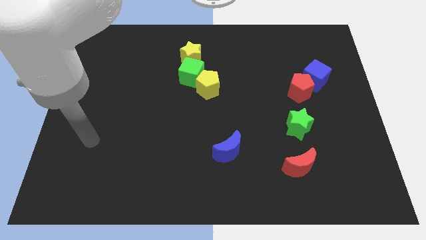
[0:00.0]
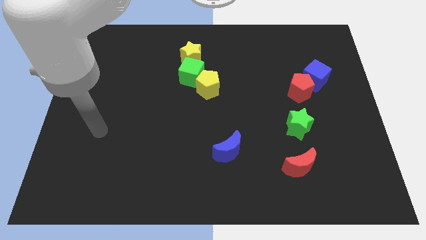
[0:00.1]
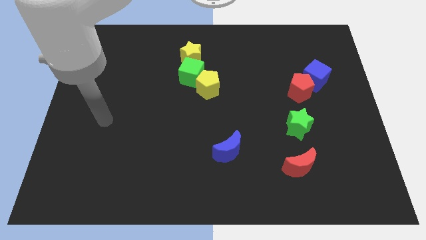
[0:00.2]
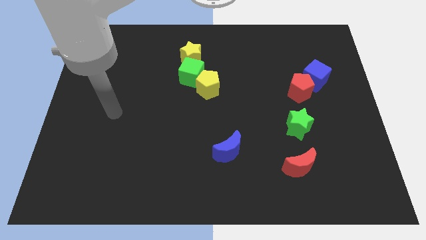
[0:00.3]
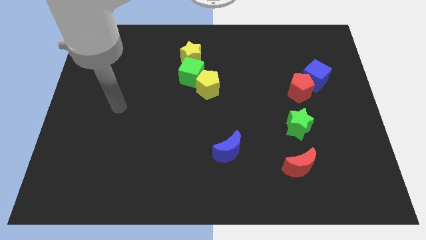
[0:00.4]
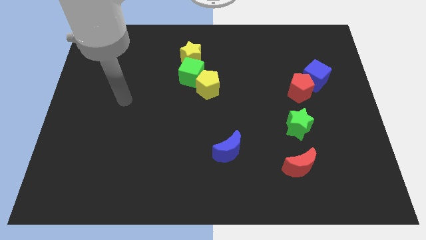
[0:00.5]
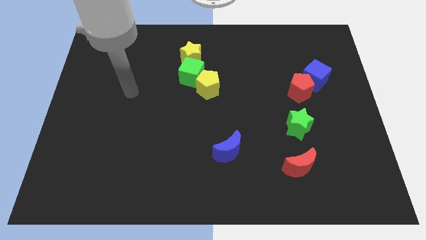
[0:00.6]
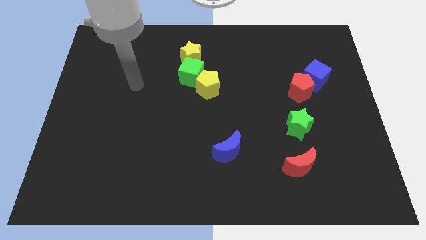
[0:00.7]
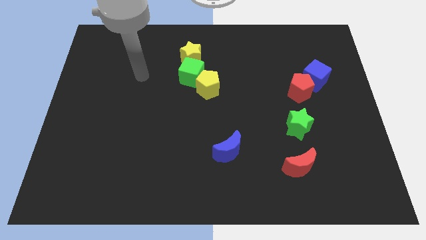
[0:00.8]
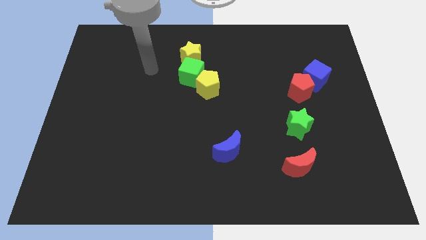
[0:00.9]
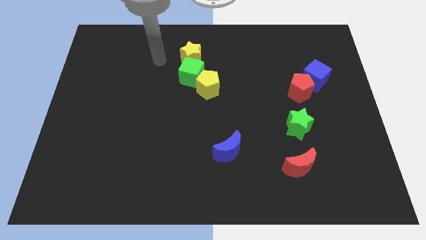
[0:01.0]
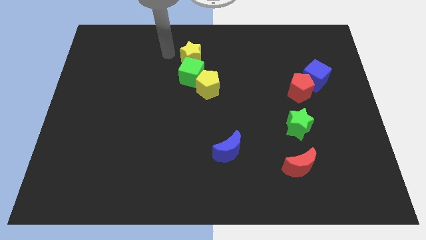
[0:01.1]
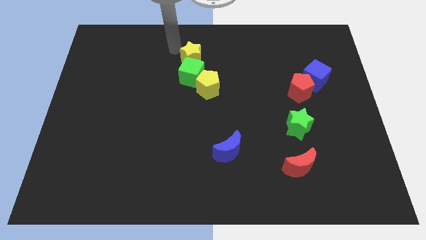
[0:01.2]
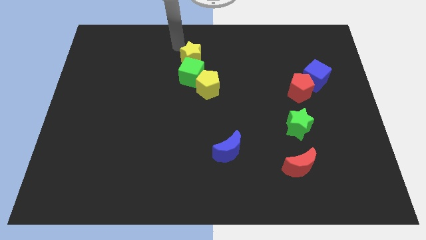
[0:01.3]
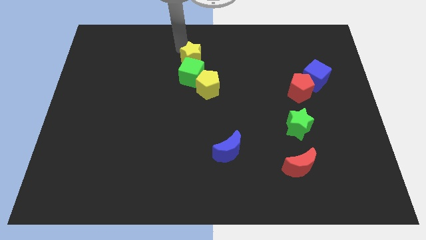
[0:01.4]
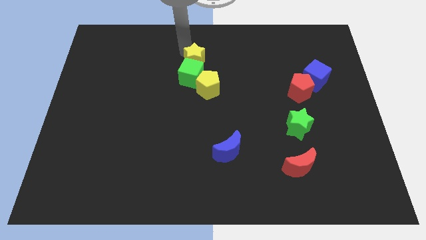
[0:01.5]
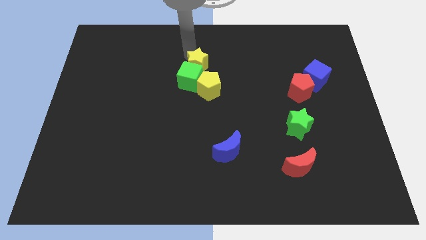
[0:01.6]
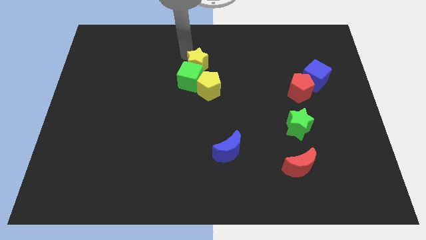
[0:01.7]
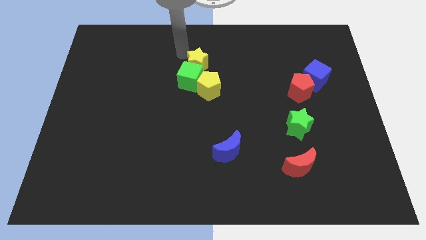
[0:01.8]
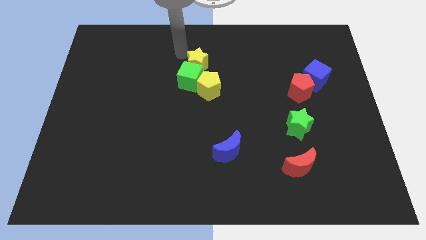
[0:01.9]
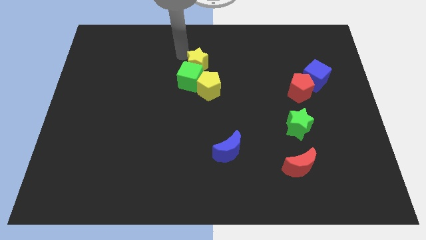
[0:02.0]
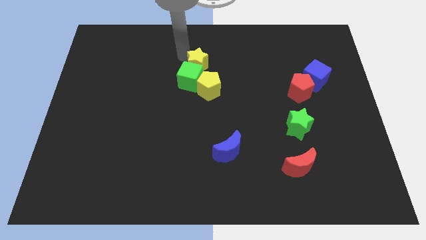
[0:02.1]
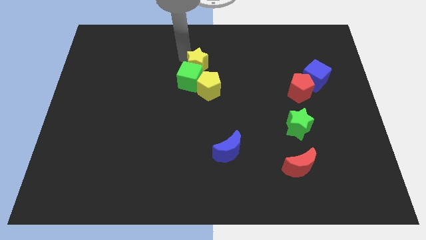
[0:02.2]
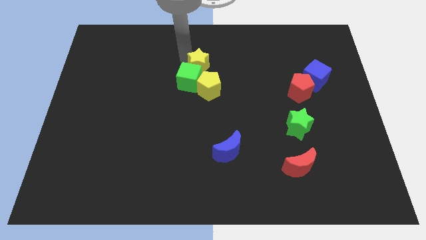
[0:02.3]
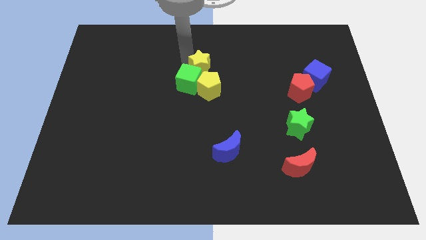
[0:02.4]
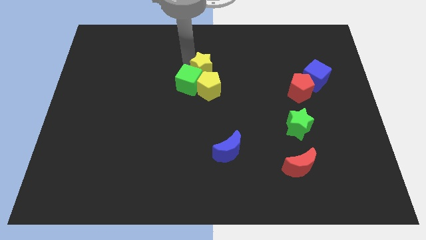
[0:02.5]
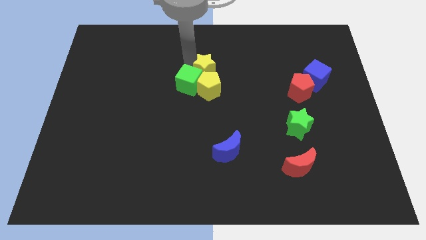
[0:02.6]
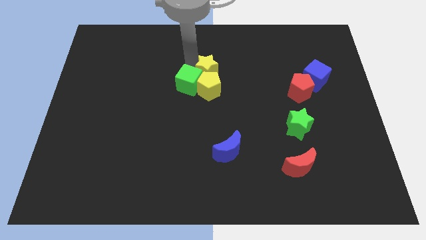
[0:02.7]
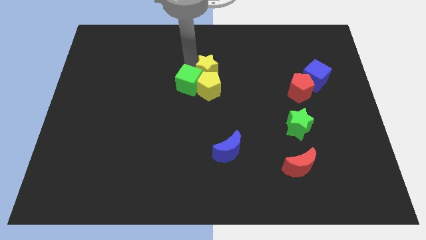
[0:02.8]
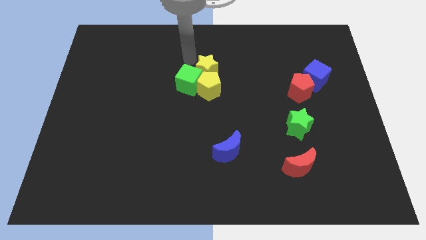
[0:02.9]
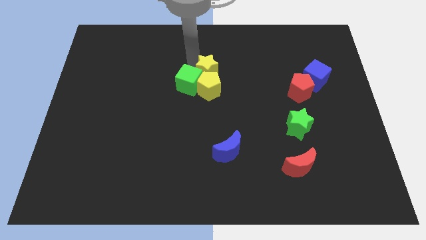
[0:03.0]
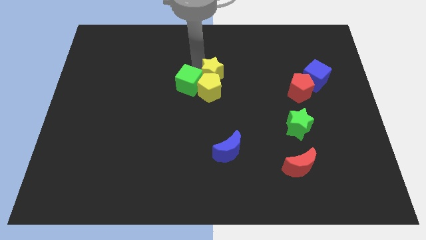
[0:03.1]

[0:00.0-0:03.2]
slightly slide the yellow star diagonally downwards and right

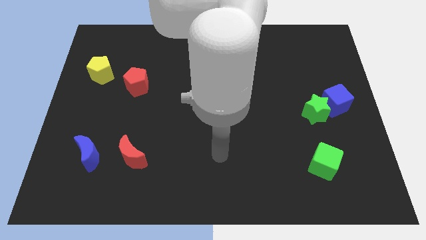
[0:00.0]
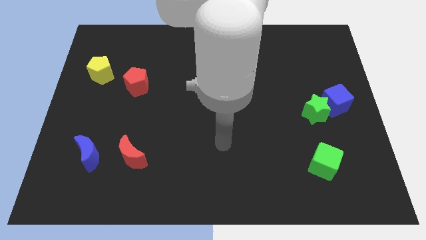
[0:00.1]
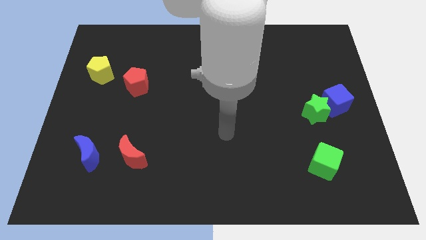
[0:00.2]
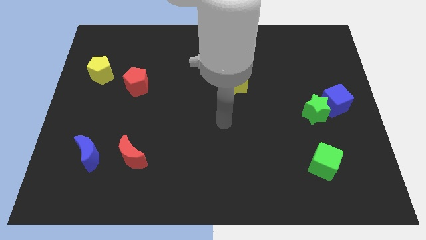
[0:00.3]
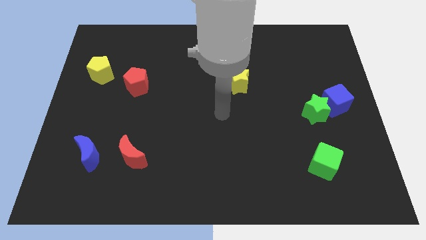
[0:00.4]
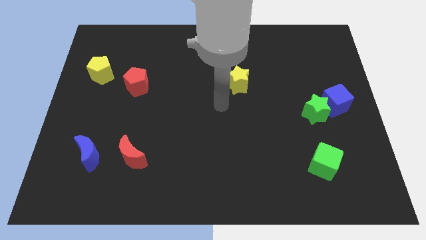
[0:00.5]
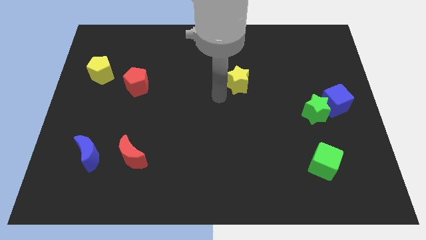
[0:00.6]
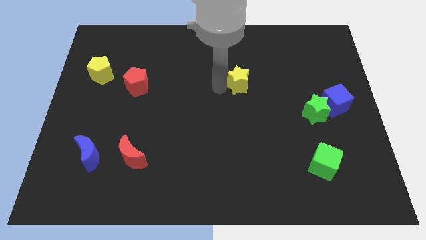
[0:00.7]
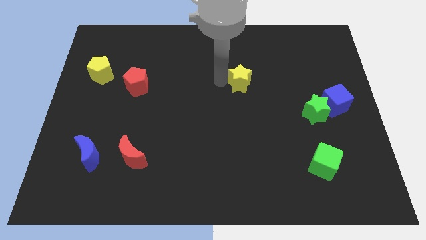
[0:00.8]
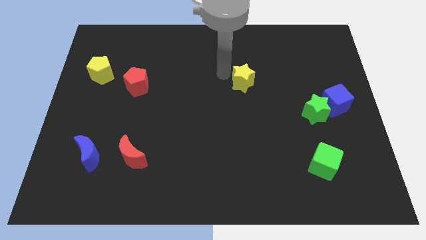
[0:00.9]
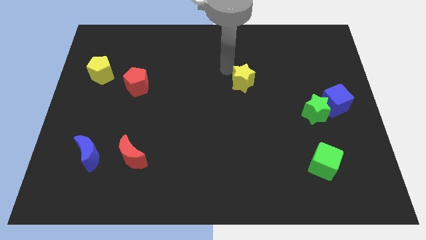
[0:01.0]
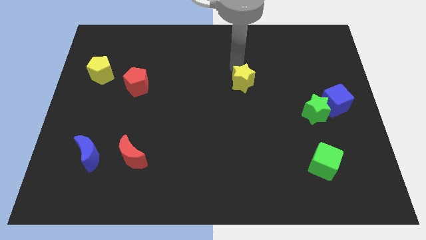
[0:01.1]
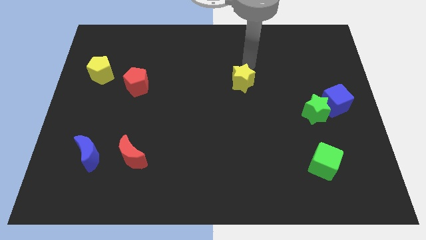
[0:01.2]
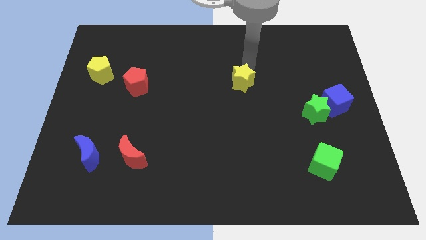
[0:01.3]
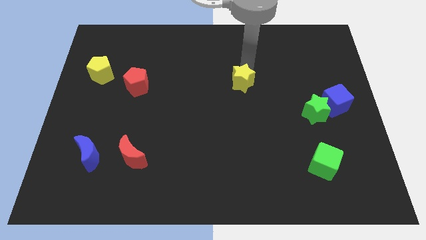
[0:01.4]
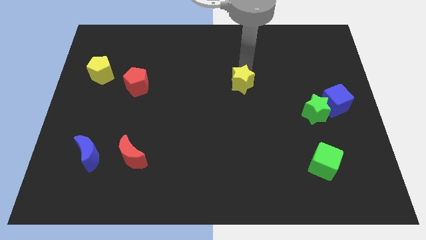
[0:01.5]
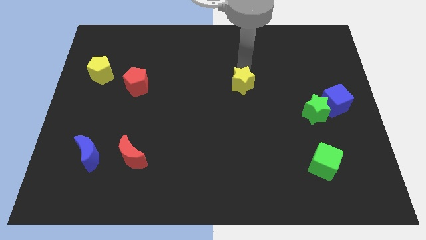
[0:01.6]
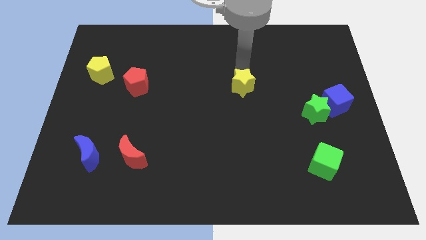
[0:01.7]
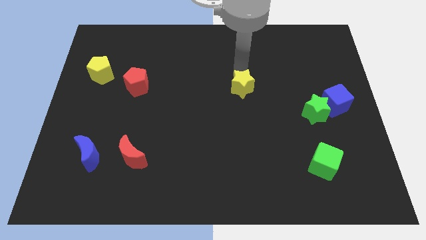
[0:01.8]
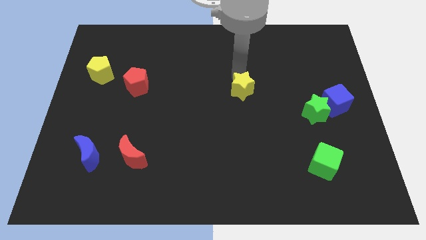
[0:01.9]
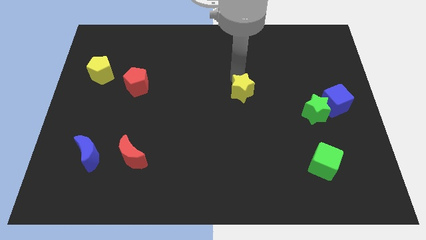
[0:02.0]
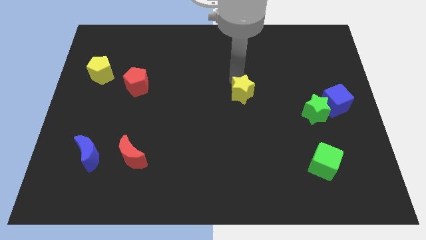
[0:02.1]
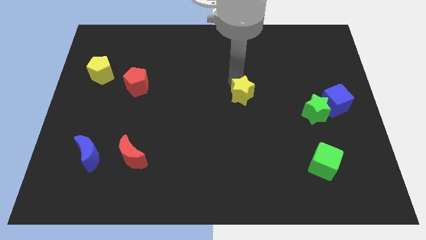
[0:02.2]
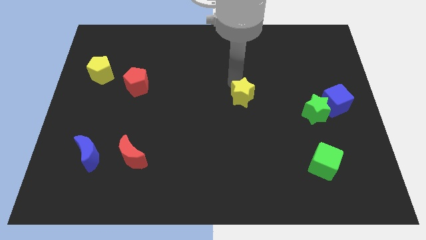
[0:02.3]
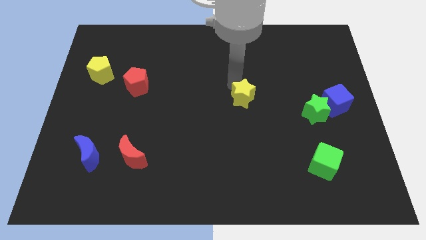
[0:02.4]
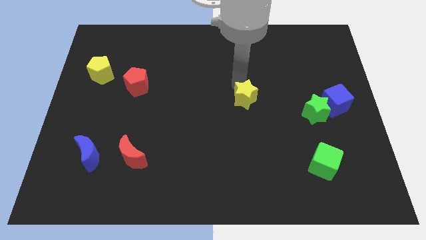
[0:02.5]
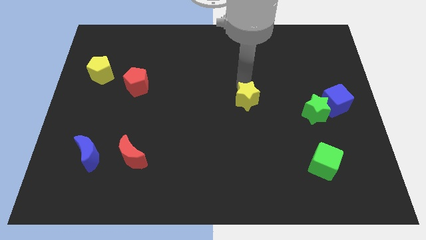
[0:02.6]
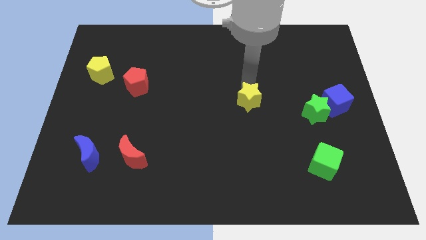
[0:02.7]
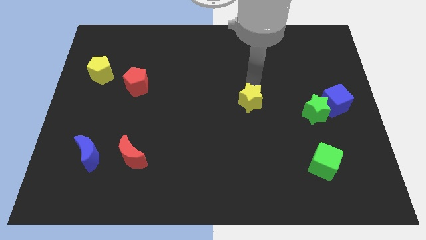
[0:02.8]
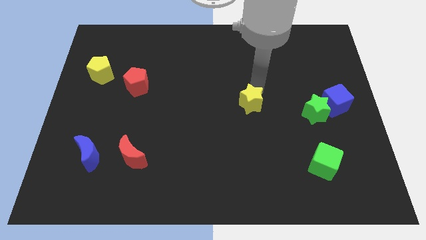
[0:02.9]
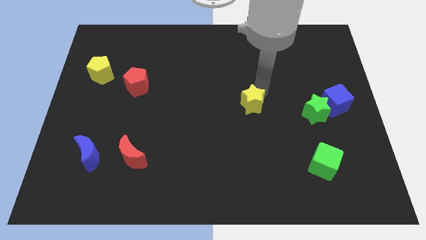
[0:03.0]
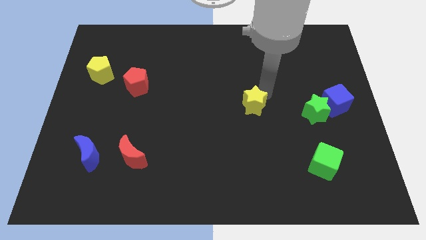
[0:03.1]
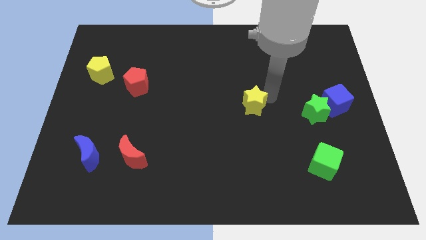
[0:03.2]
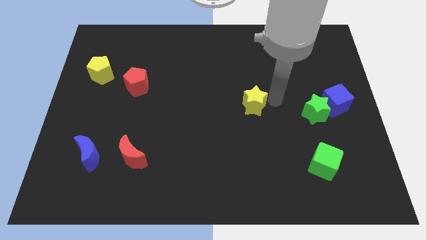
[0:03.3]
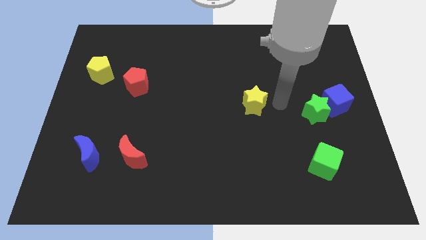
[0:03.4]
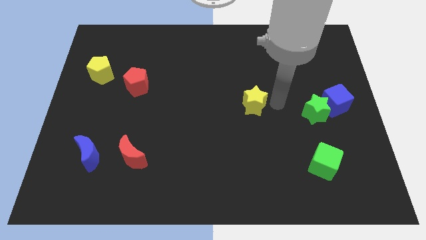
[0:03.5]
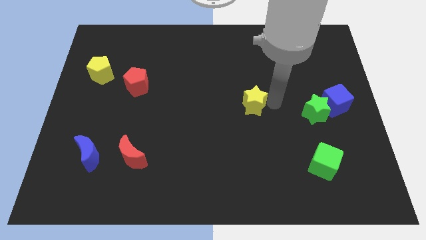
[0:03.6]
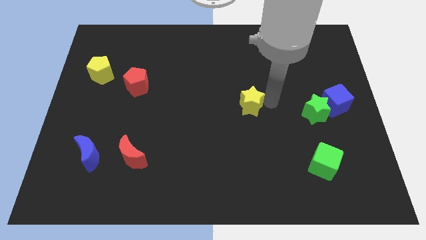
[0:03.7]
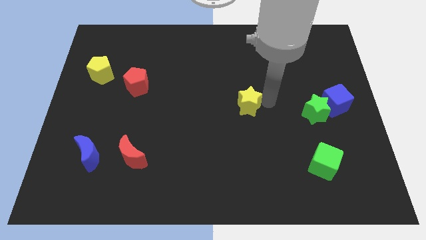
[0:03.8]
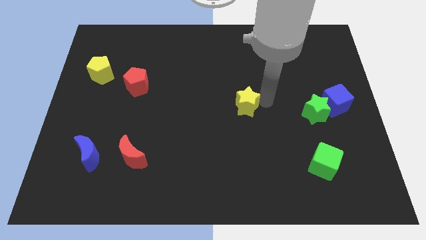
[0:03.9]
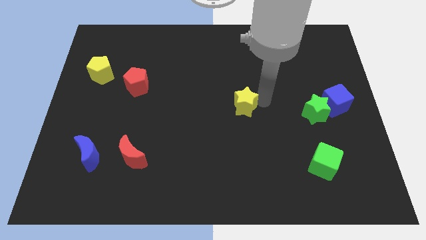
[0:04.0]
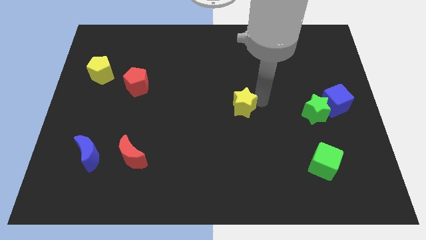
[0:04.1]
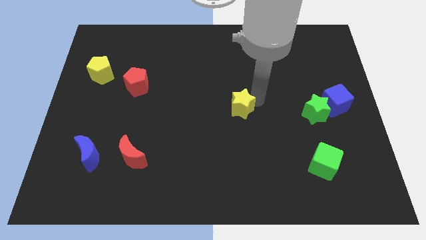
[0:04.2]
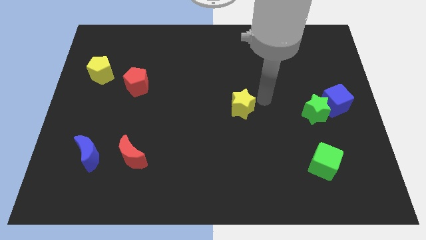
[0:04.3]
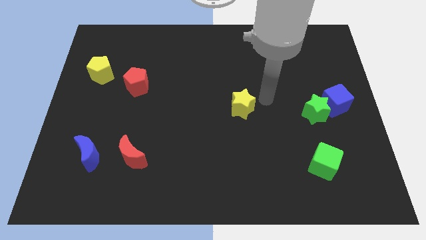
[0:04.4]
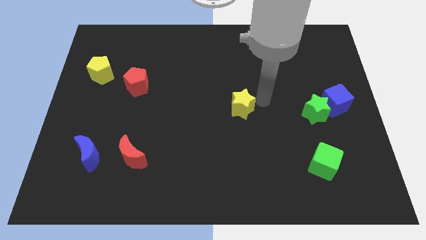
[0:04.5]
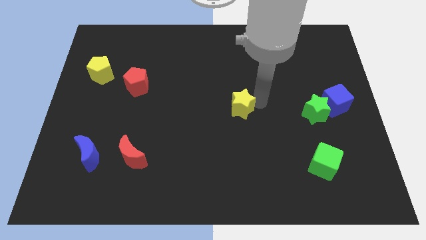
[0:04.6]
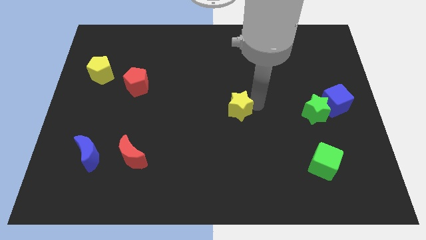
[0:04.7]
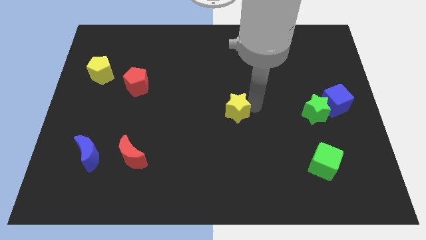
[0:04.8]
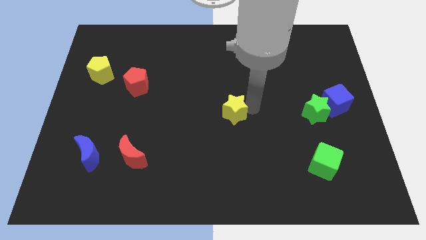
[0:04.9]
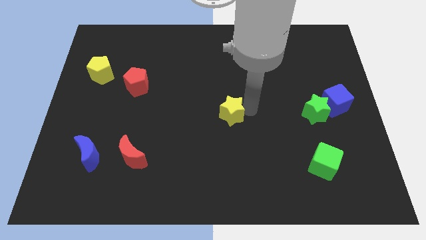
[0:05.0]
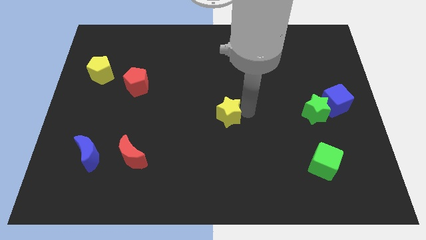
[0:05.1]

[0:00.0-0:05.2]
slightly push the yellow star diagonally down and to the left
